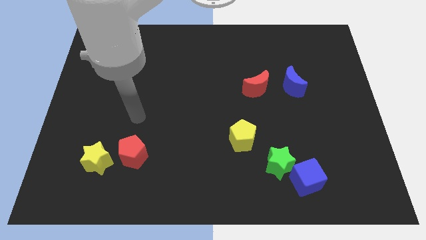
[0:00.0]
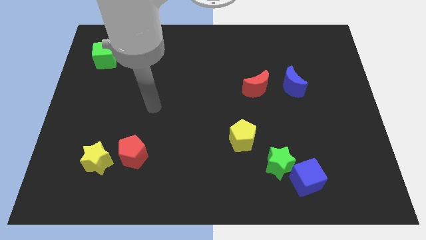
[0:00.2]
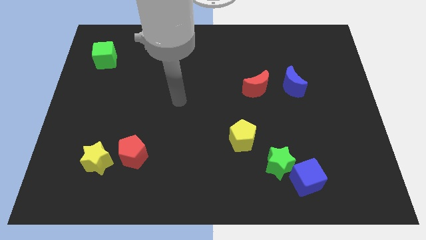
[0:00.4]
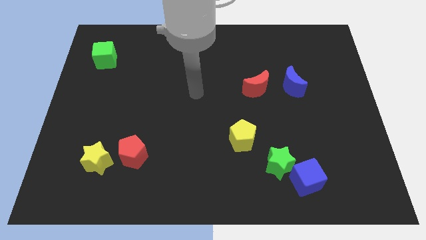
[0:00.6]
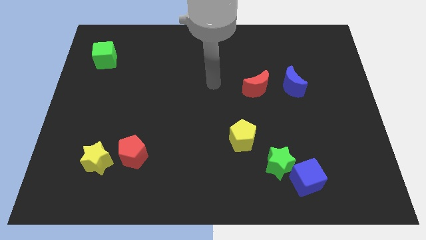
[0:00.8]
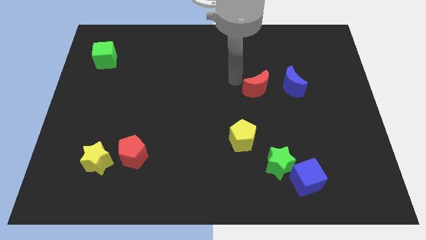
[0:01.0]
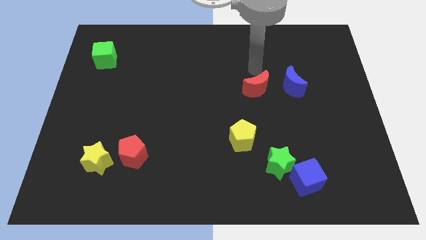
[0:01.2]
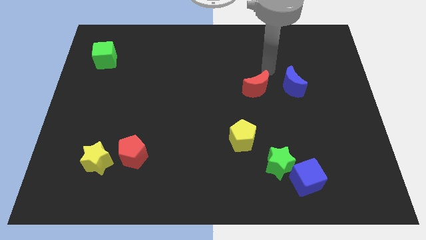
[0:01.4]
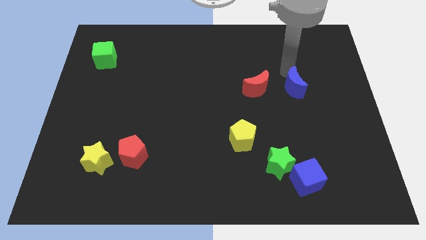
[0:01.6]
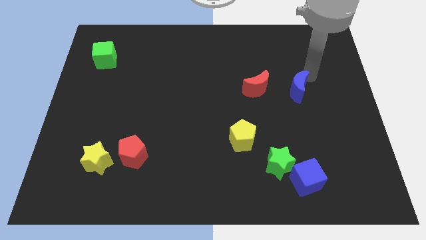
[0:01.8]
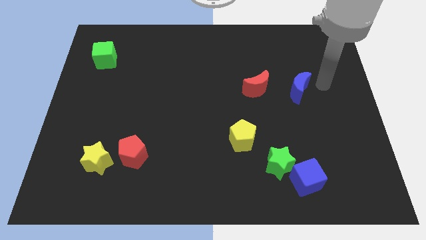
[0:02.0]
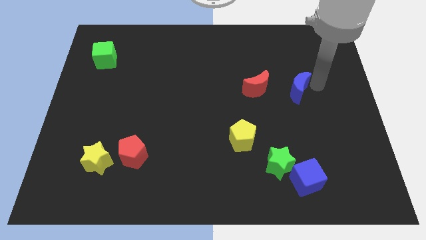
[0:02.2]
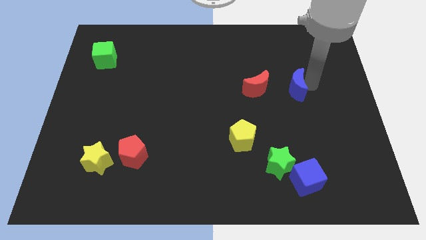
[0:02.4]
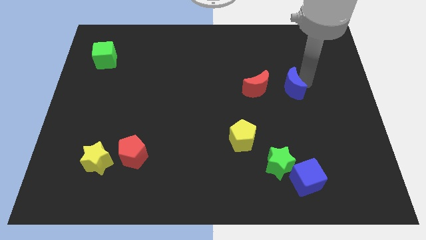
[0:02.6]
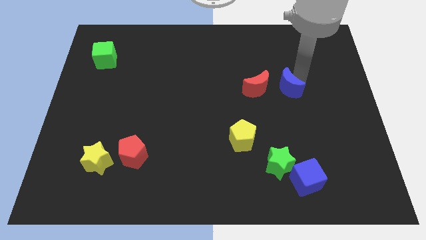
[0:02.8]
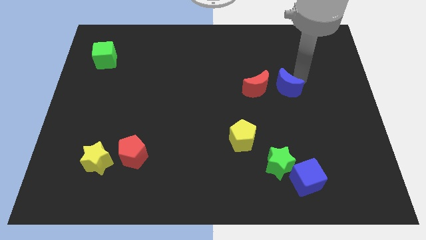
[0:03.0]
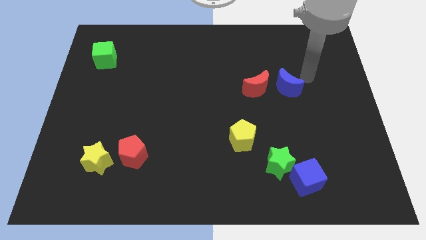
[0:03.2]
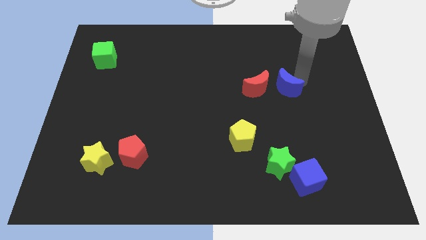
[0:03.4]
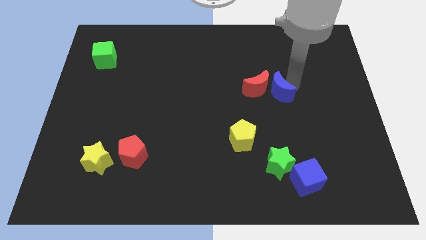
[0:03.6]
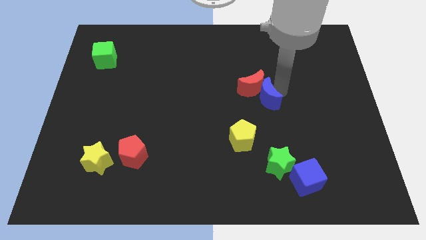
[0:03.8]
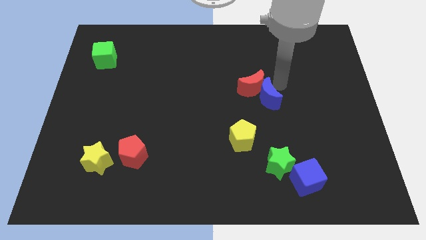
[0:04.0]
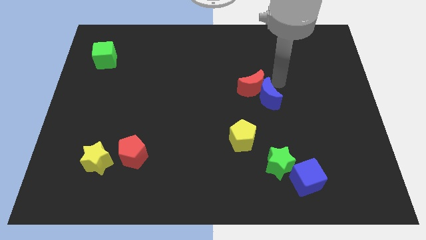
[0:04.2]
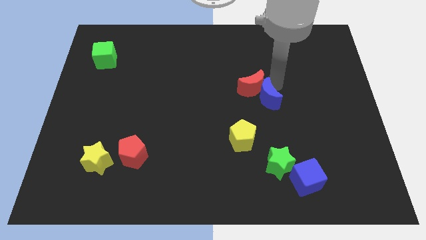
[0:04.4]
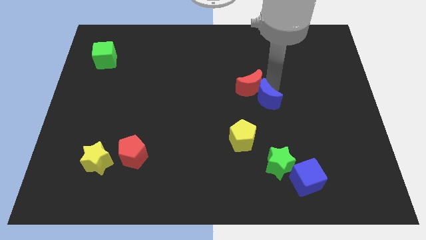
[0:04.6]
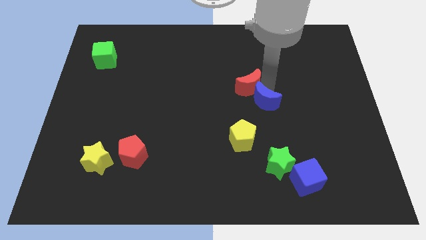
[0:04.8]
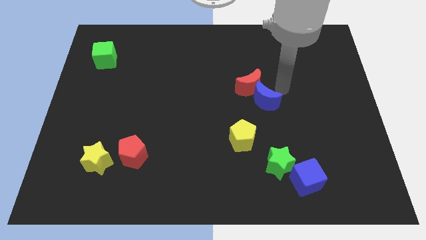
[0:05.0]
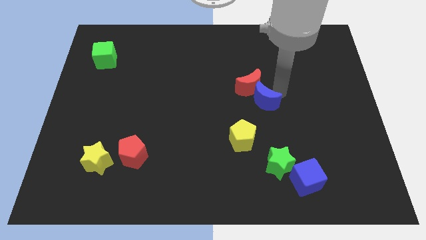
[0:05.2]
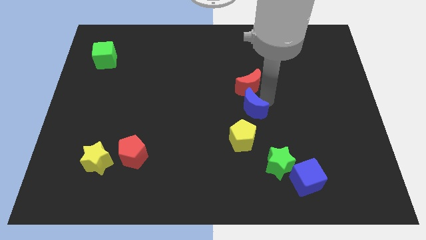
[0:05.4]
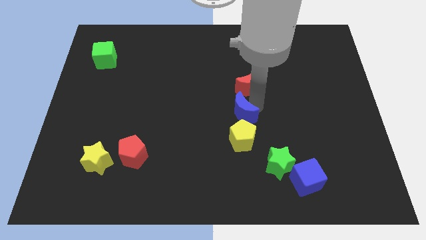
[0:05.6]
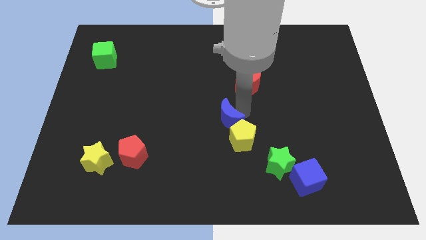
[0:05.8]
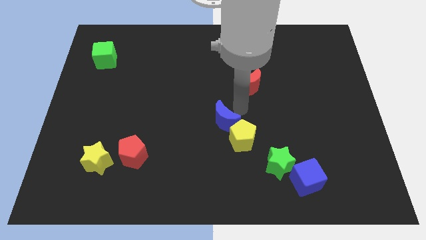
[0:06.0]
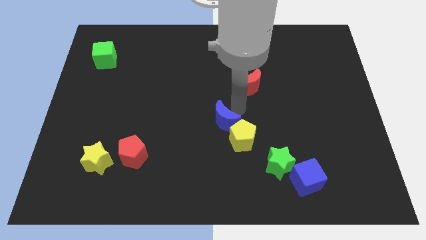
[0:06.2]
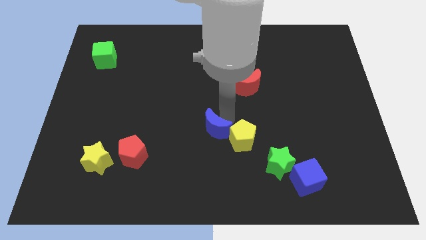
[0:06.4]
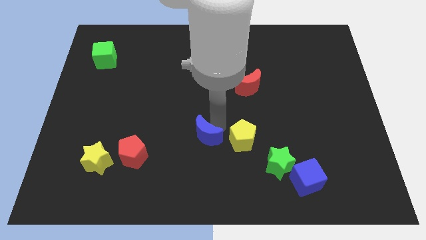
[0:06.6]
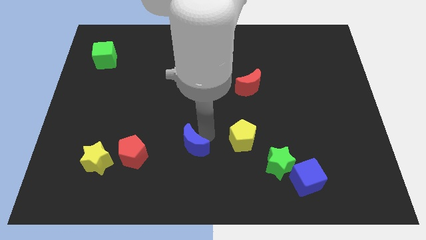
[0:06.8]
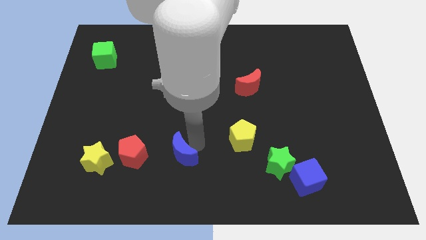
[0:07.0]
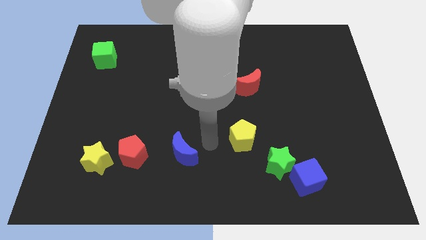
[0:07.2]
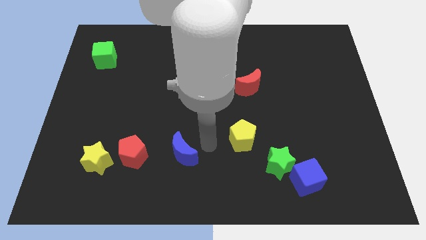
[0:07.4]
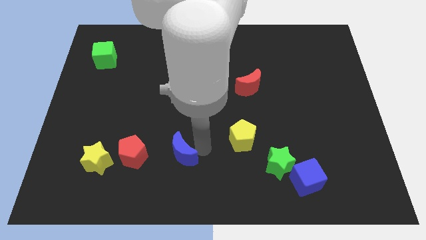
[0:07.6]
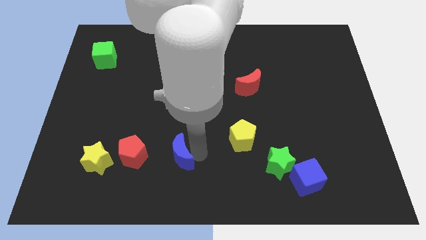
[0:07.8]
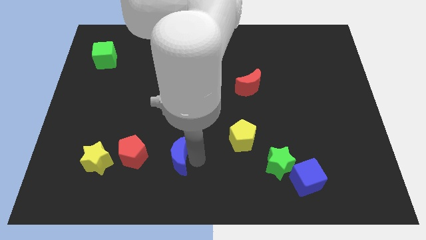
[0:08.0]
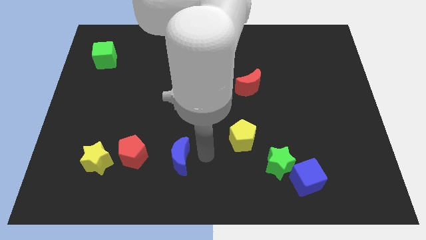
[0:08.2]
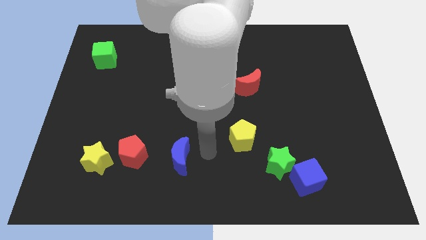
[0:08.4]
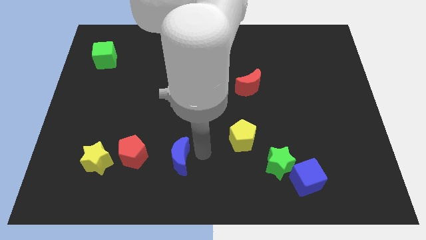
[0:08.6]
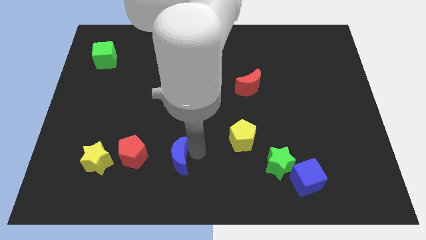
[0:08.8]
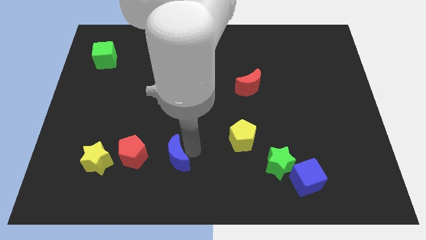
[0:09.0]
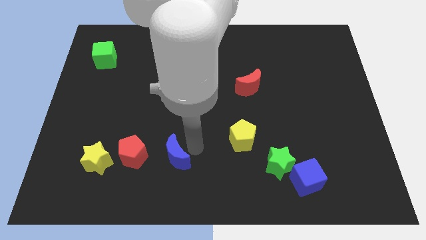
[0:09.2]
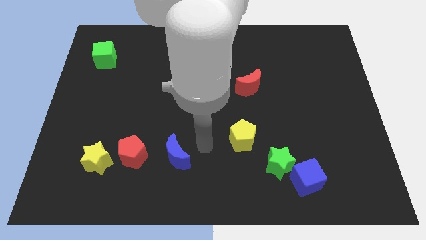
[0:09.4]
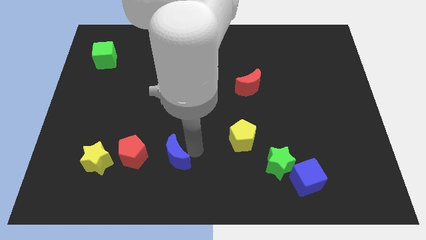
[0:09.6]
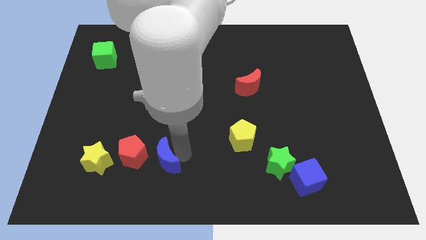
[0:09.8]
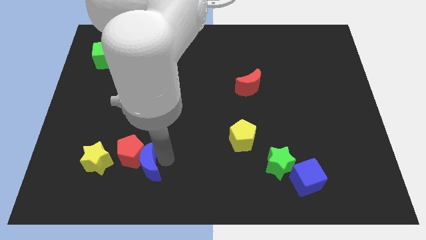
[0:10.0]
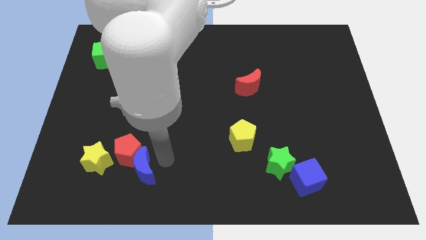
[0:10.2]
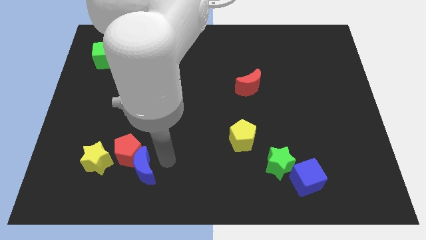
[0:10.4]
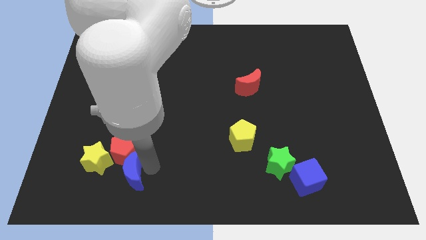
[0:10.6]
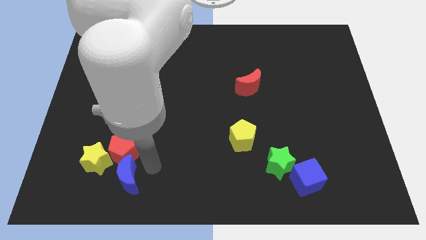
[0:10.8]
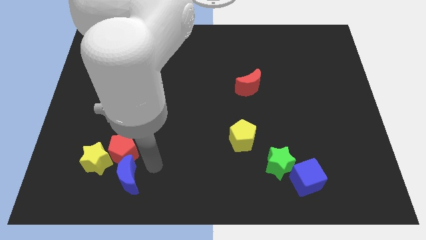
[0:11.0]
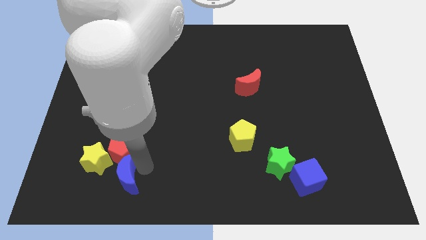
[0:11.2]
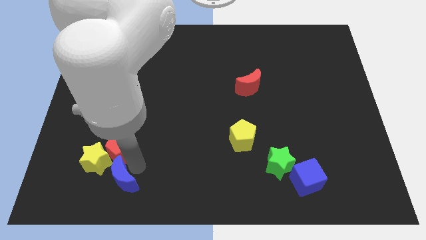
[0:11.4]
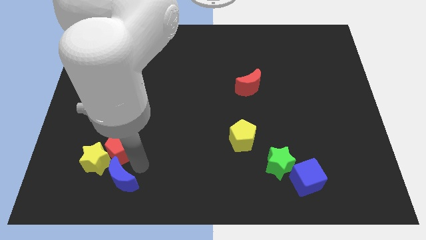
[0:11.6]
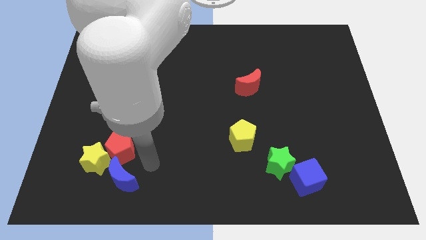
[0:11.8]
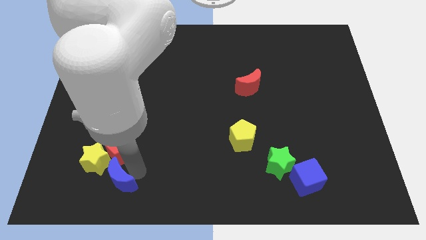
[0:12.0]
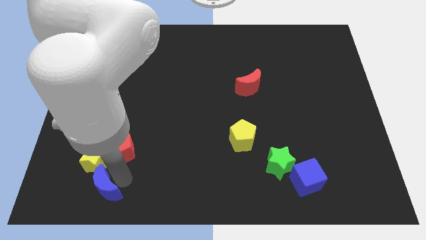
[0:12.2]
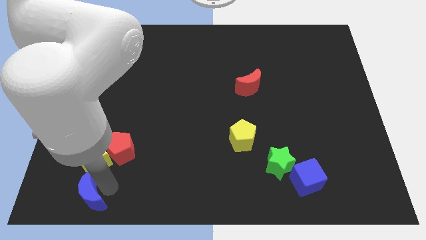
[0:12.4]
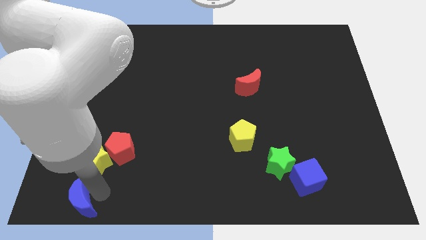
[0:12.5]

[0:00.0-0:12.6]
slide the blue moon to the bottom left corner
